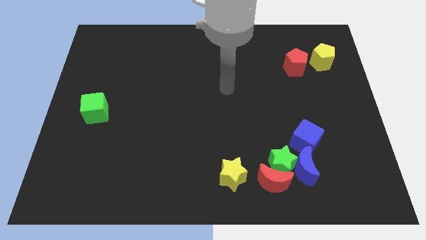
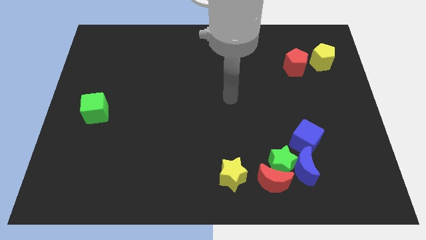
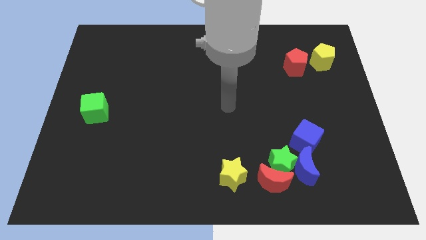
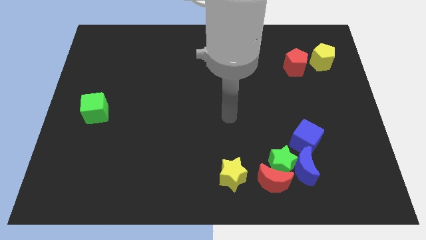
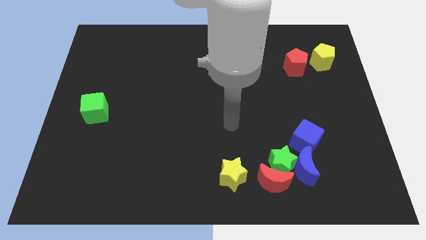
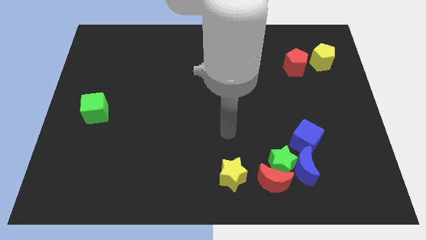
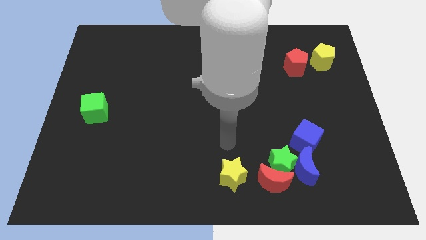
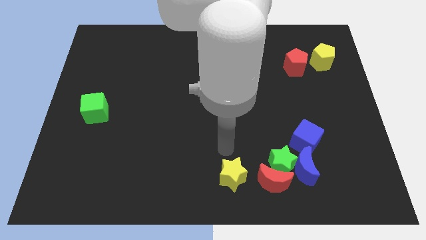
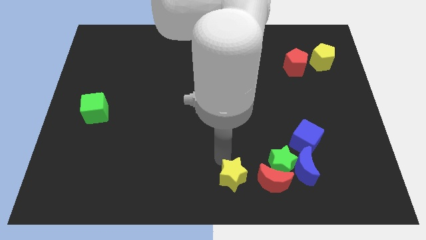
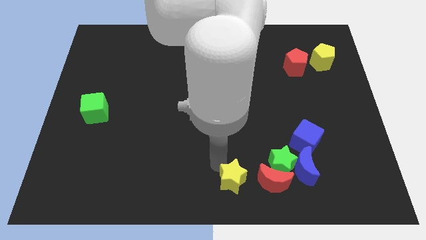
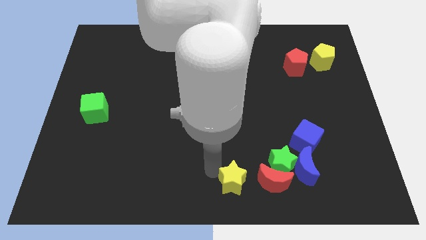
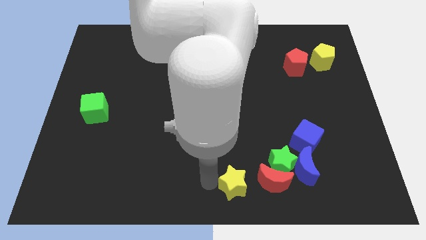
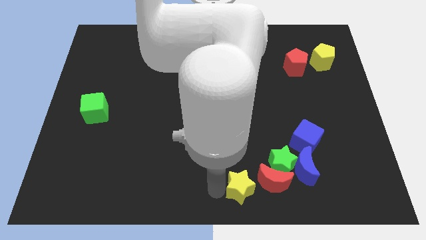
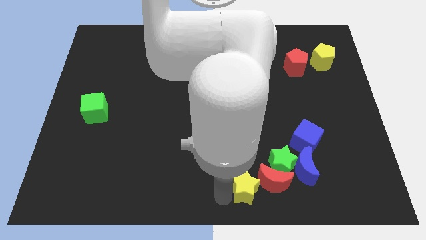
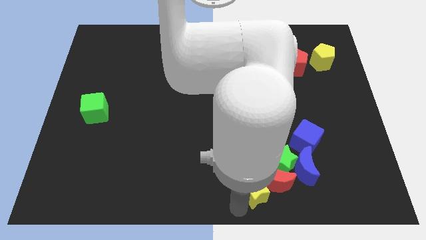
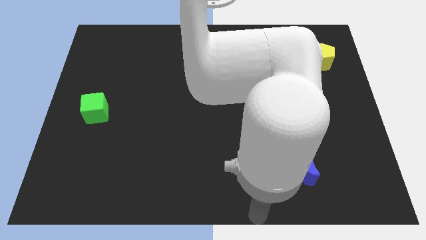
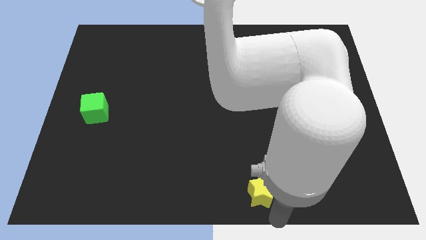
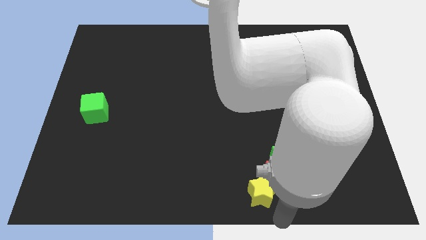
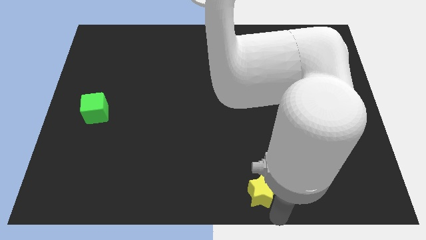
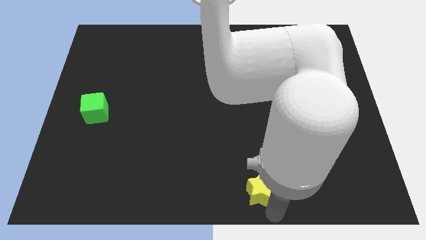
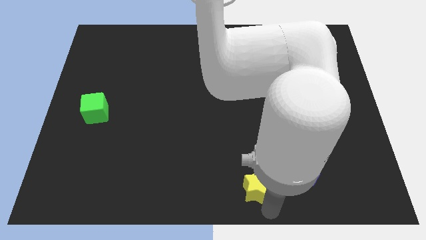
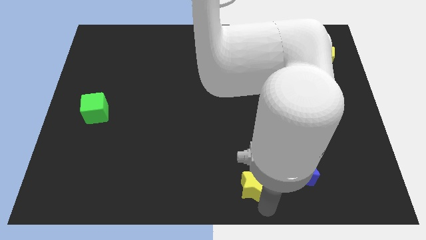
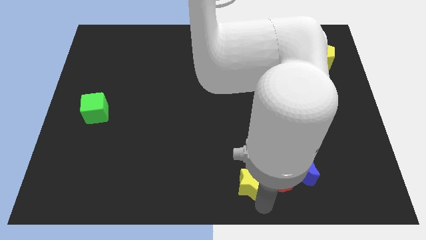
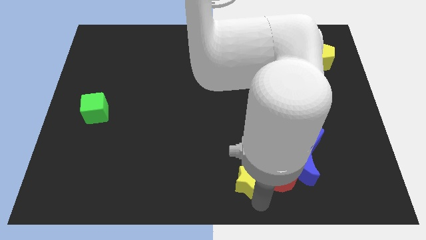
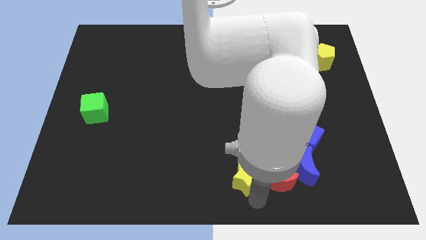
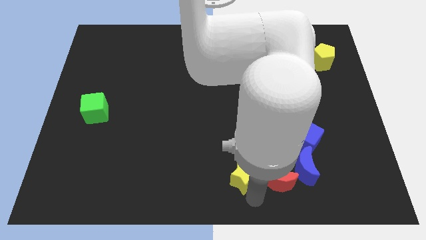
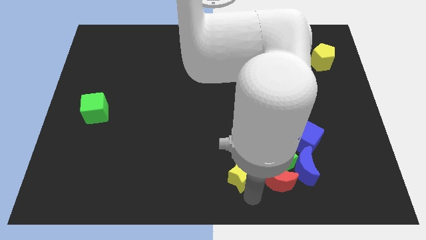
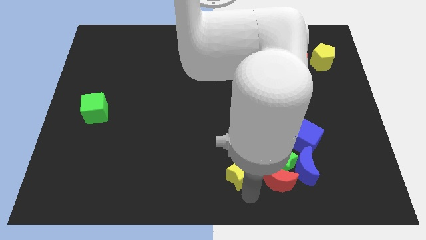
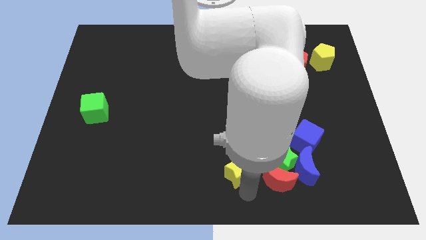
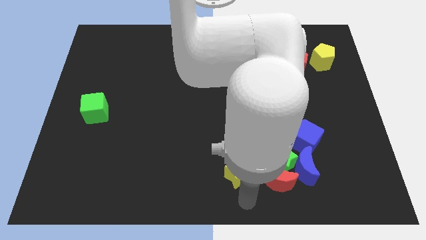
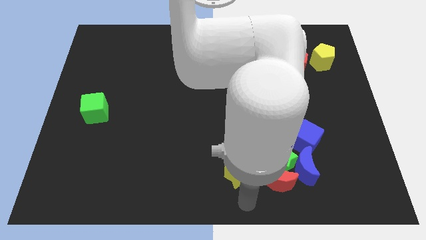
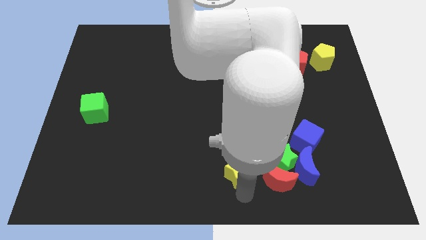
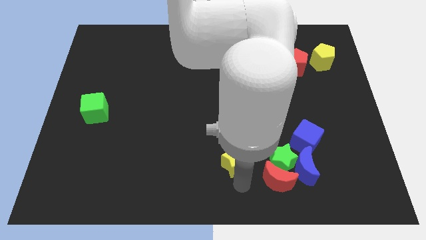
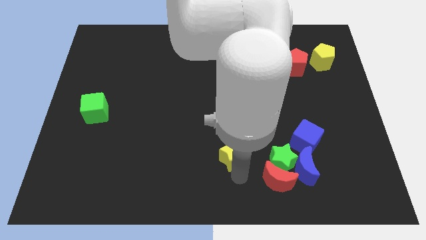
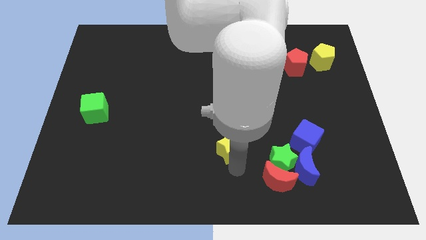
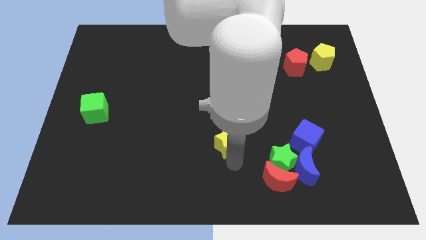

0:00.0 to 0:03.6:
move the yellow star upwards a little

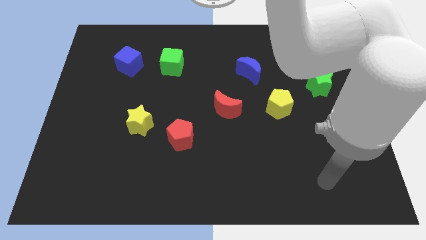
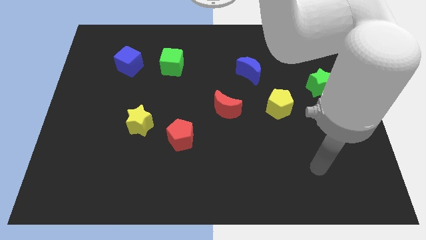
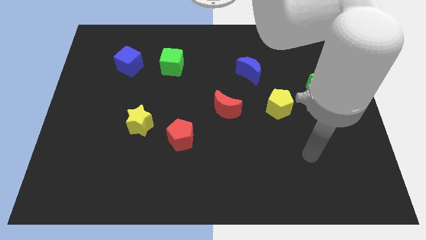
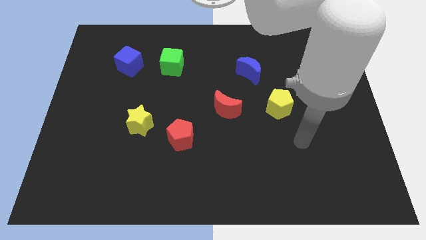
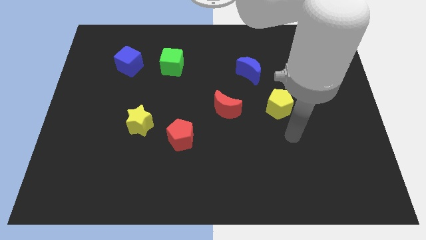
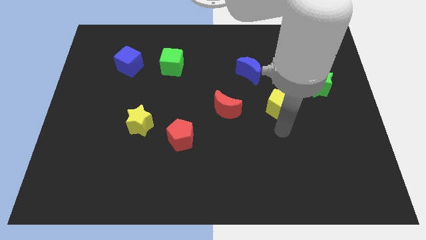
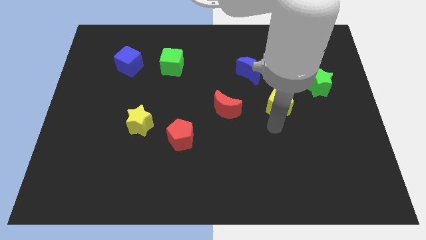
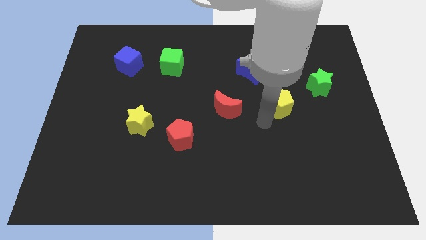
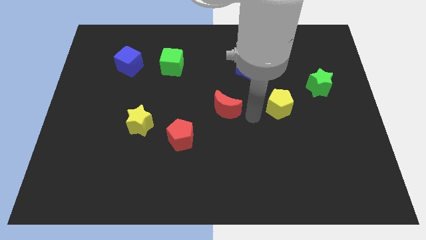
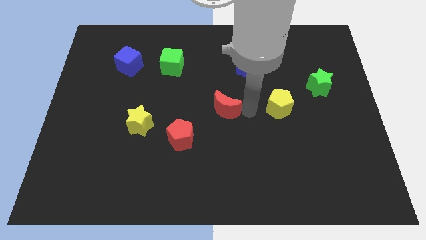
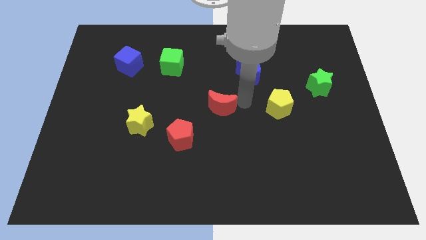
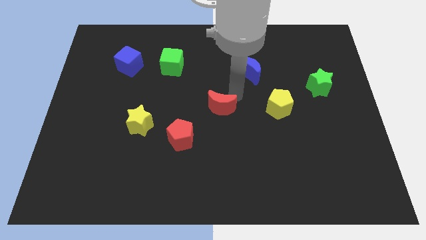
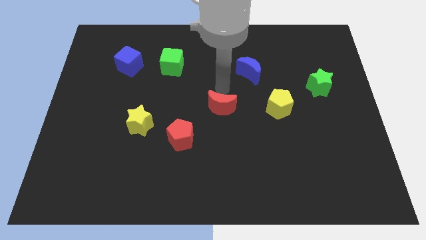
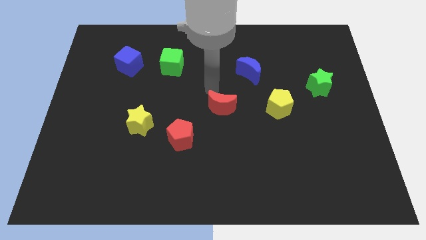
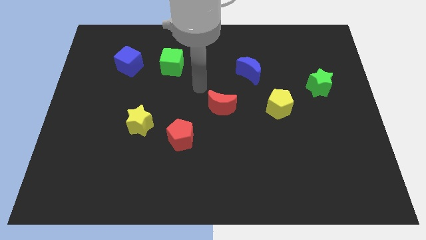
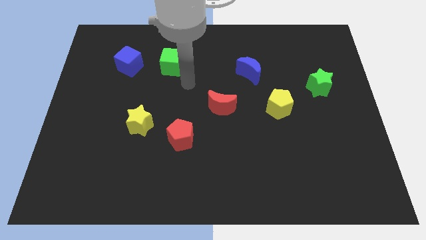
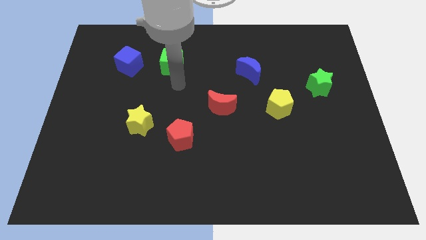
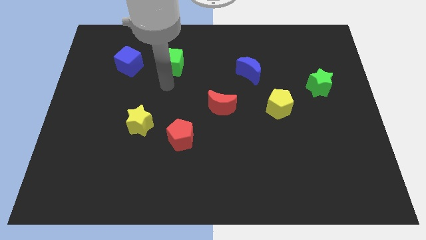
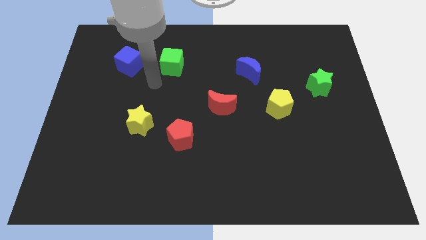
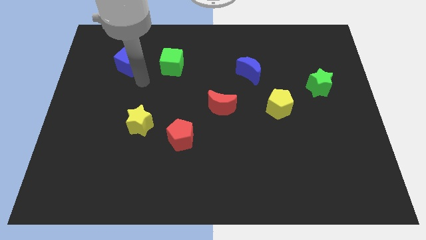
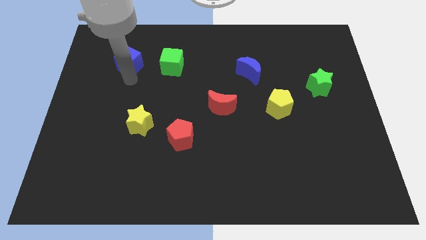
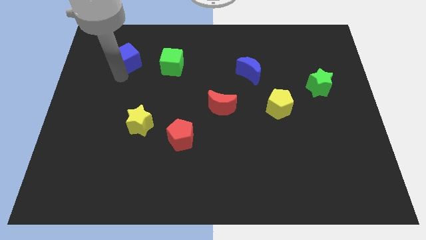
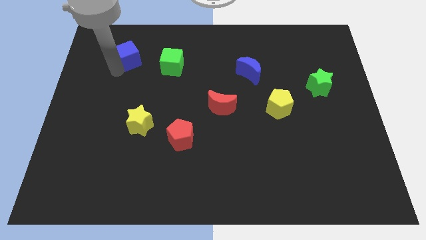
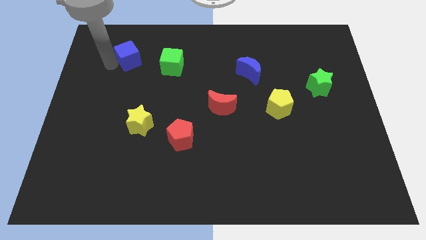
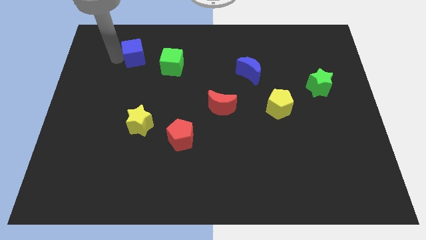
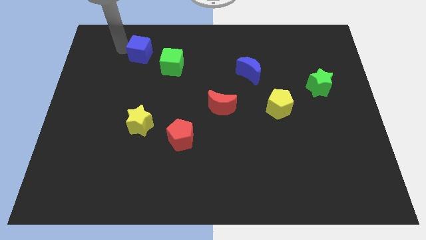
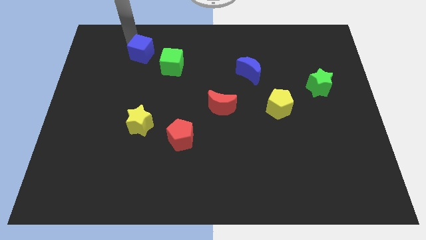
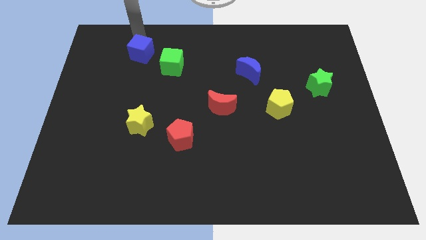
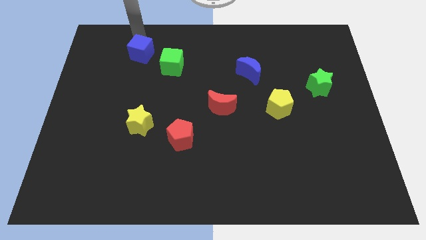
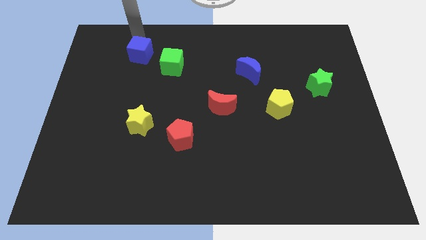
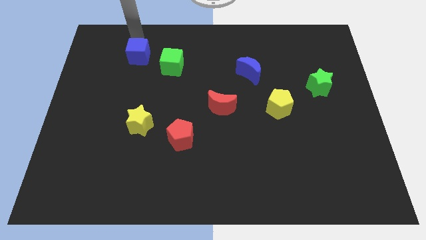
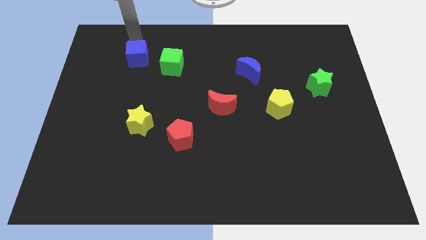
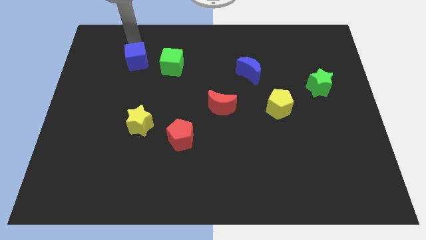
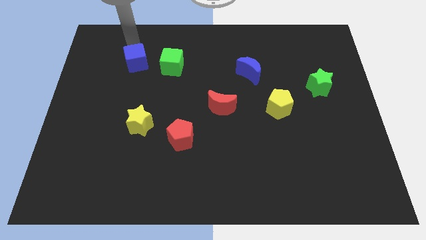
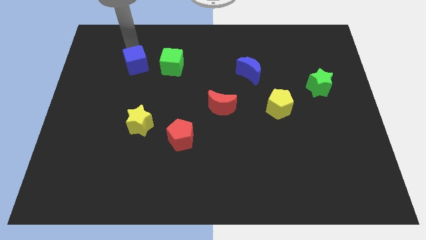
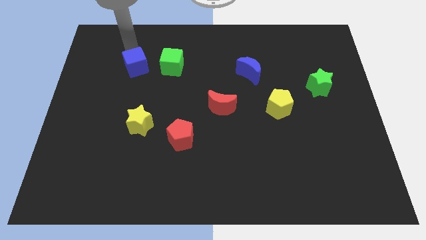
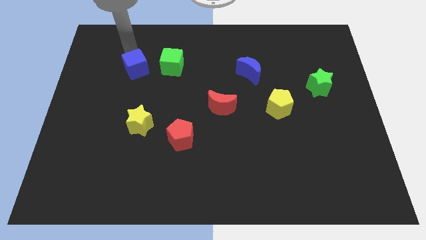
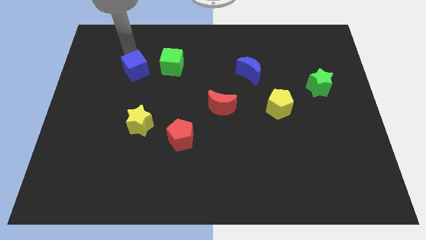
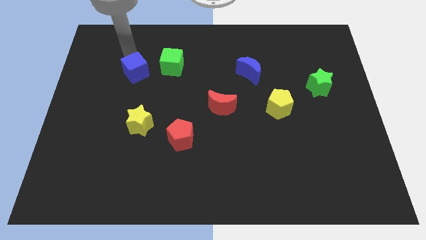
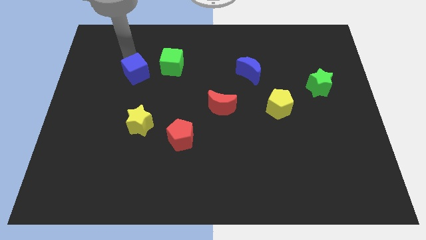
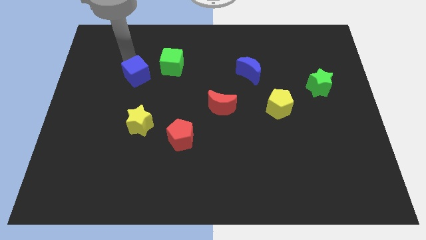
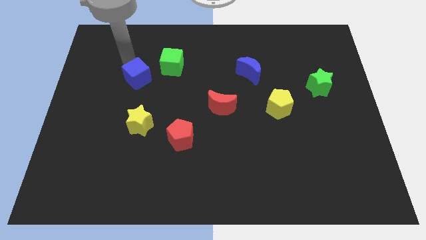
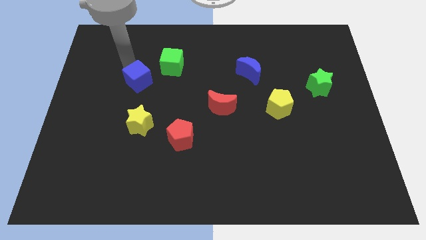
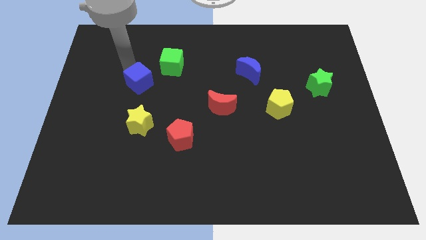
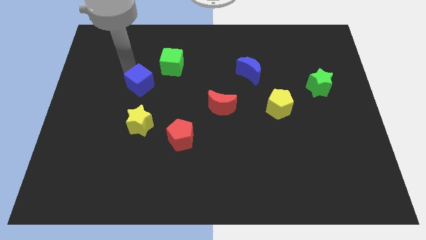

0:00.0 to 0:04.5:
push the blue cube diagonally down and right a bit
